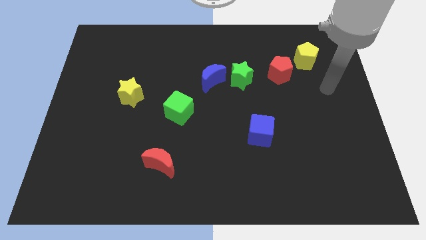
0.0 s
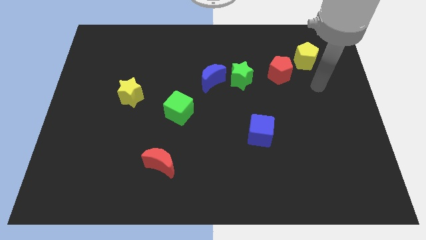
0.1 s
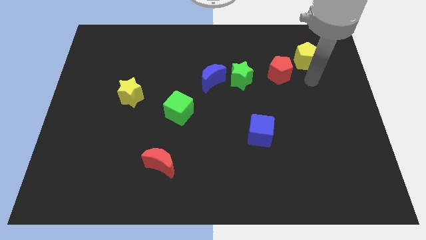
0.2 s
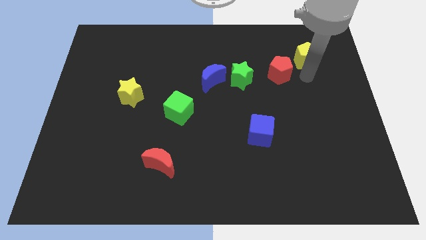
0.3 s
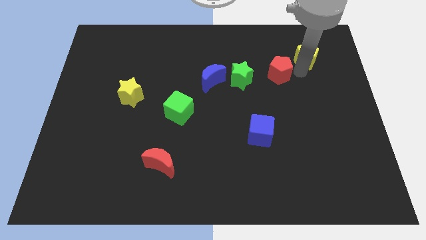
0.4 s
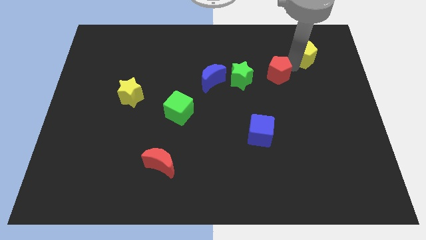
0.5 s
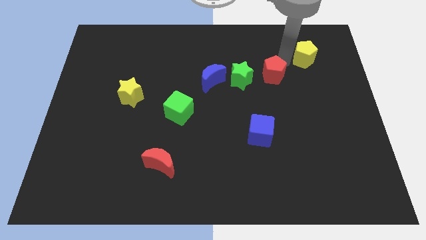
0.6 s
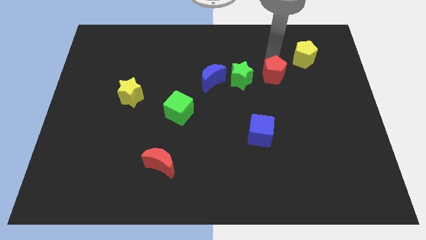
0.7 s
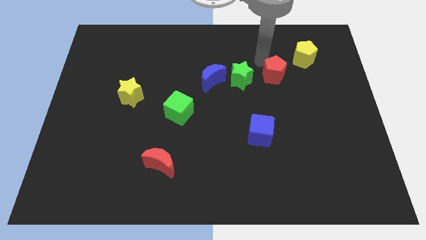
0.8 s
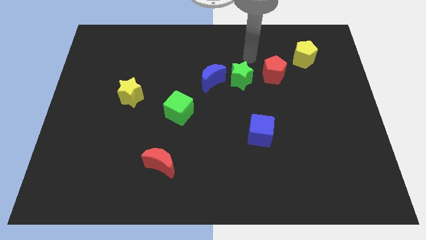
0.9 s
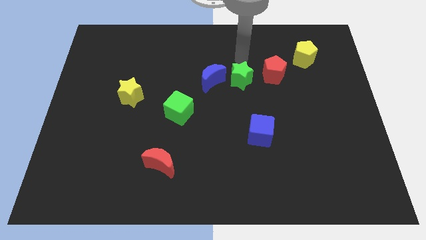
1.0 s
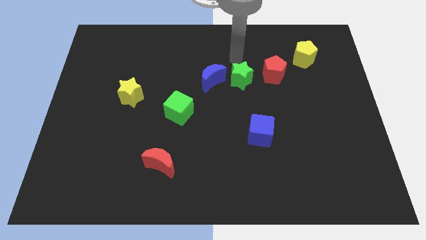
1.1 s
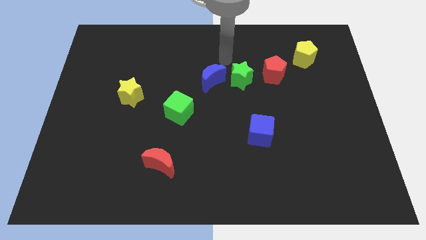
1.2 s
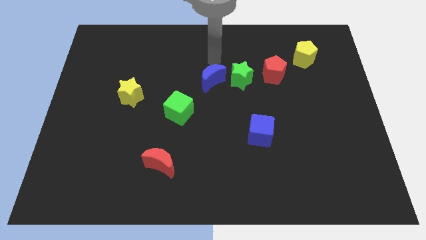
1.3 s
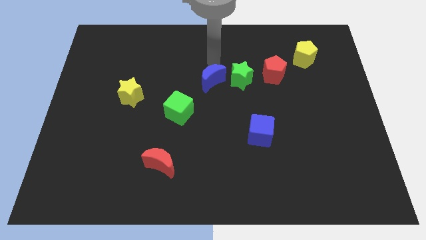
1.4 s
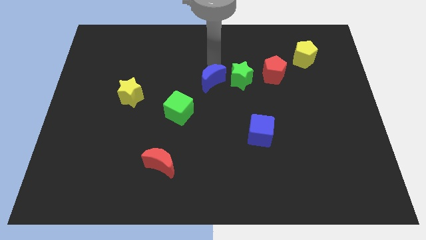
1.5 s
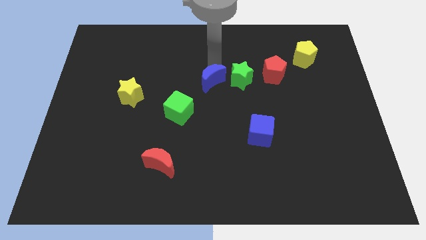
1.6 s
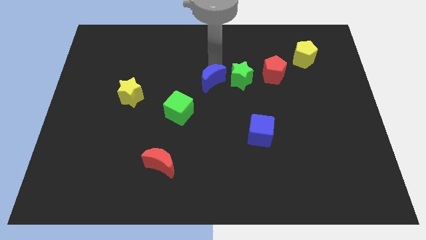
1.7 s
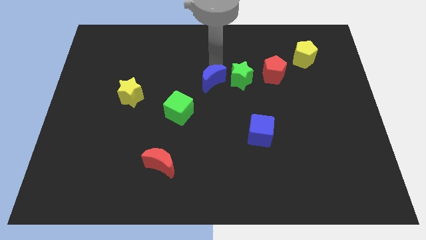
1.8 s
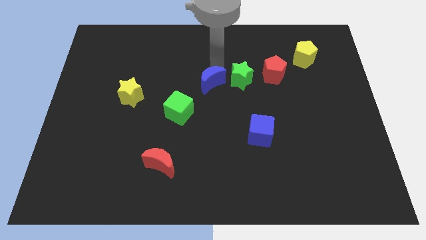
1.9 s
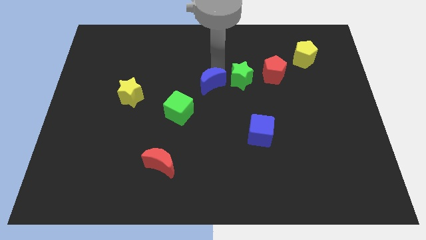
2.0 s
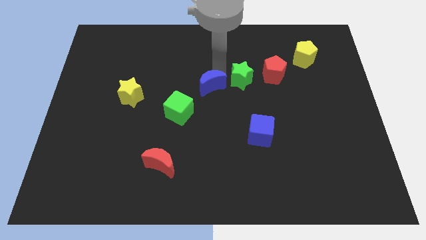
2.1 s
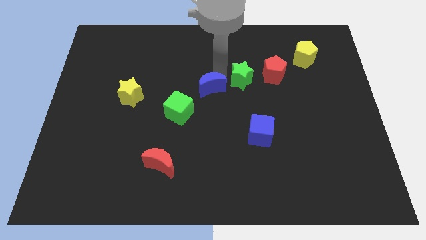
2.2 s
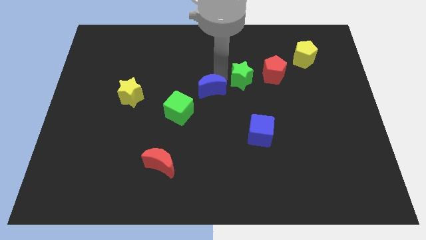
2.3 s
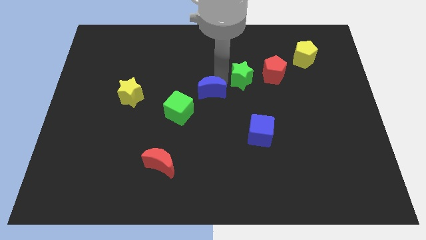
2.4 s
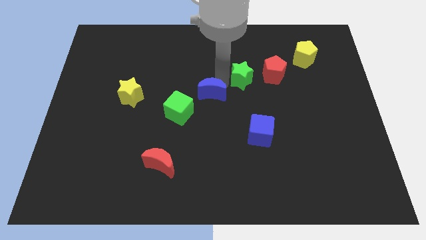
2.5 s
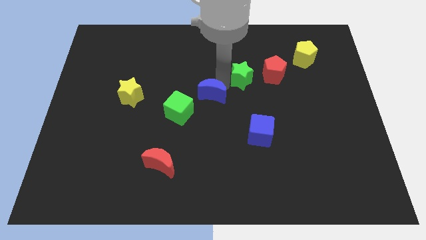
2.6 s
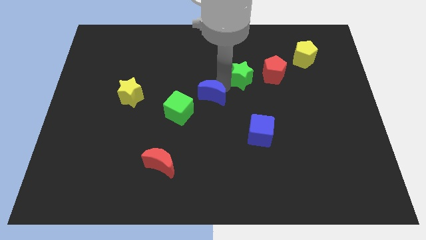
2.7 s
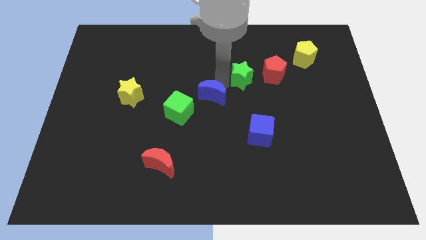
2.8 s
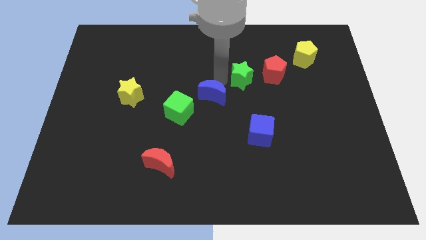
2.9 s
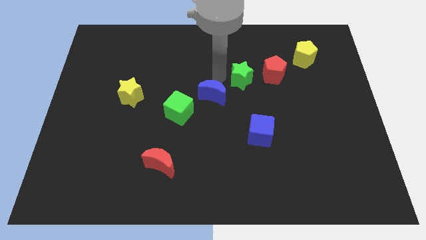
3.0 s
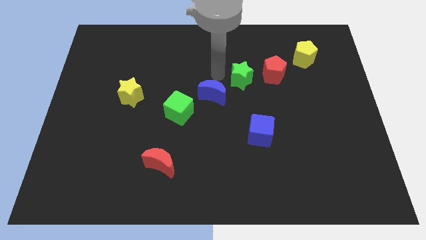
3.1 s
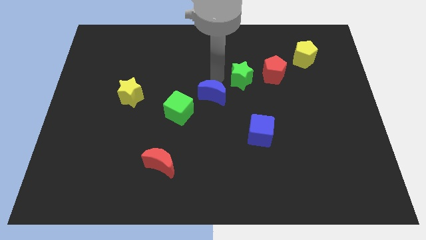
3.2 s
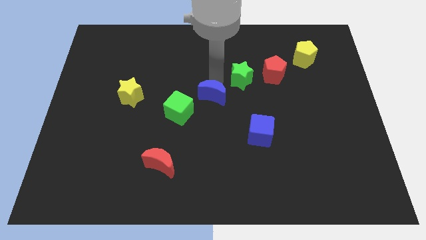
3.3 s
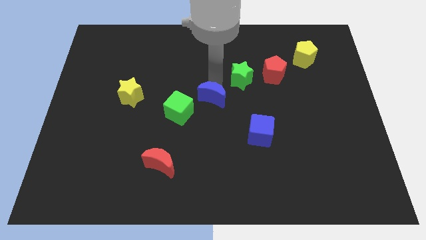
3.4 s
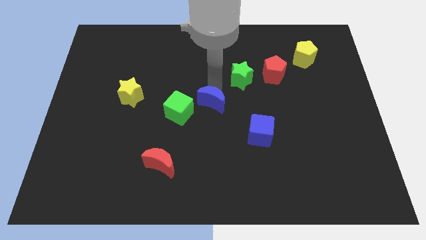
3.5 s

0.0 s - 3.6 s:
push the blue moon slightly downwards

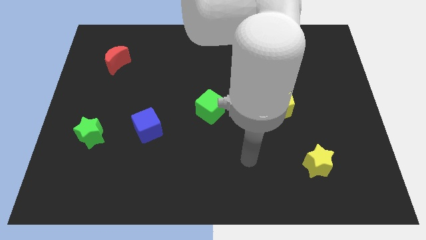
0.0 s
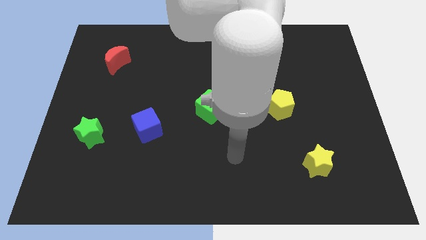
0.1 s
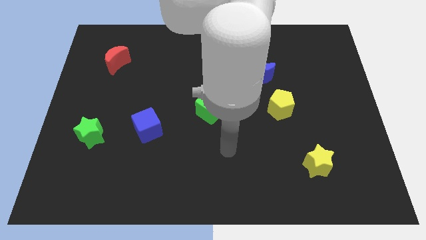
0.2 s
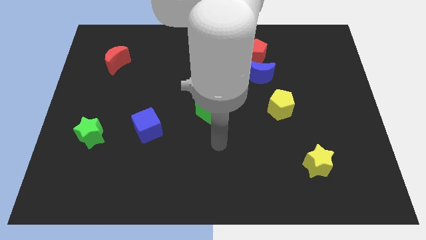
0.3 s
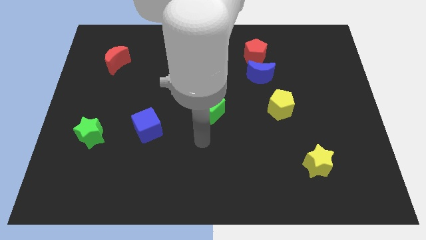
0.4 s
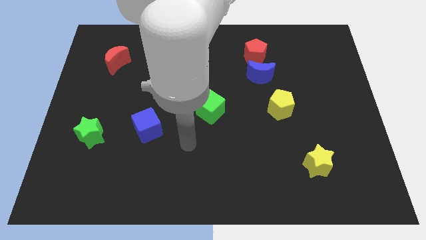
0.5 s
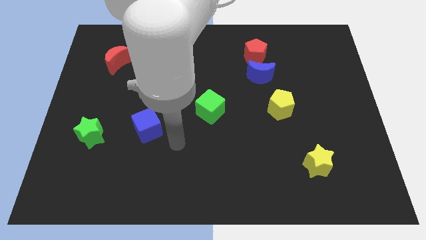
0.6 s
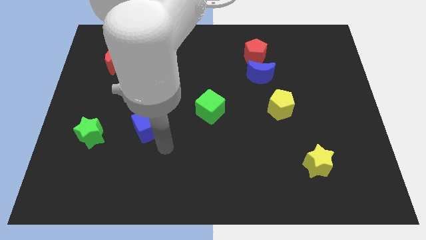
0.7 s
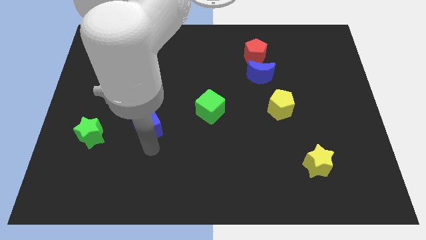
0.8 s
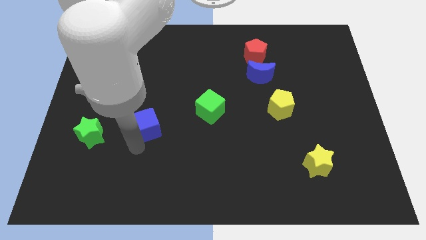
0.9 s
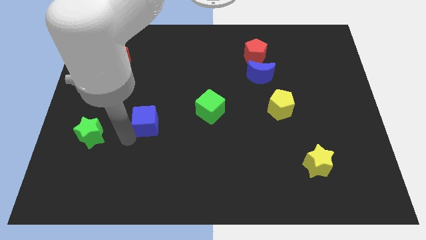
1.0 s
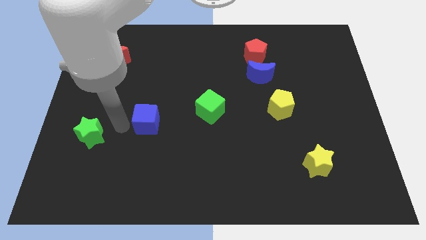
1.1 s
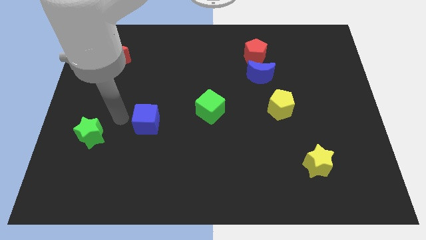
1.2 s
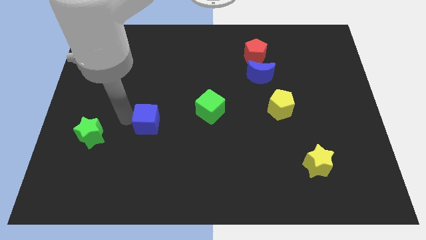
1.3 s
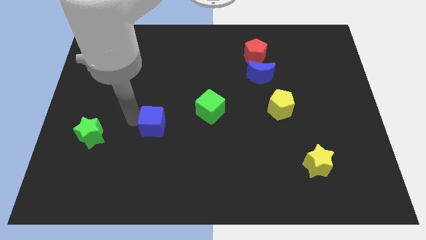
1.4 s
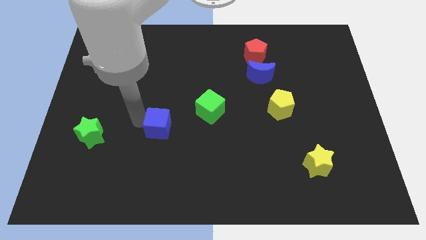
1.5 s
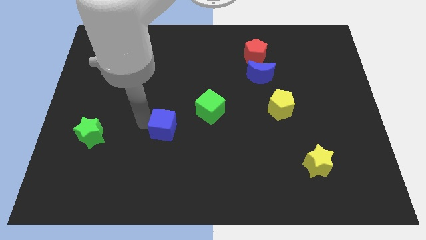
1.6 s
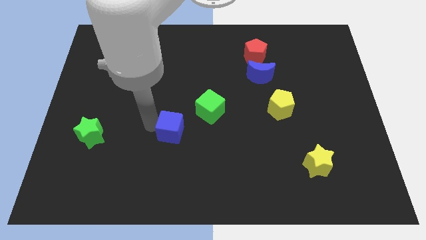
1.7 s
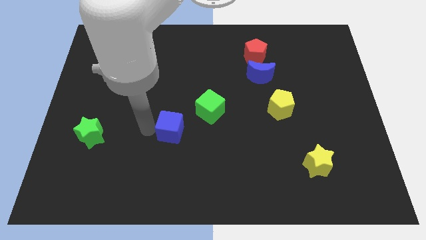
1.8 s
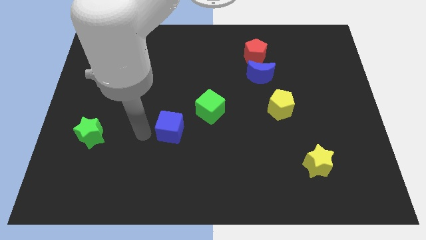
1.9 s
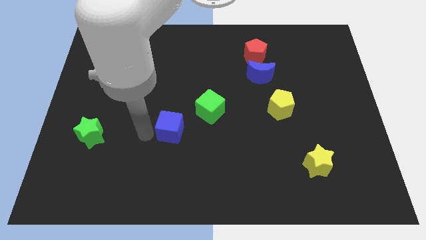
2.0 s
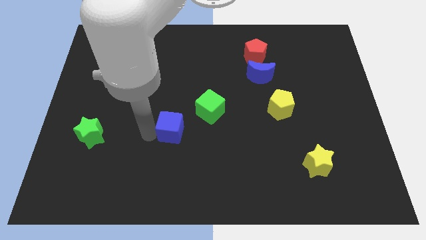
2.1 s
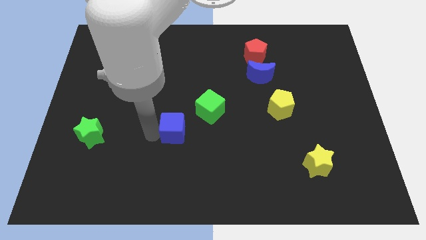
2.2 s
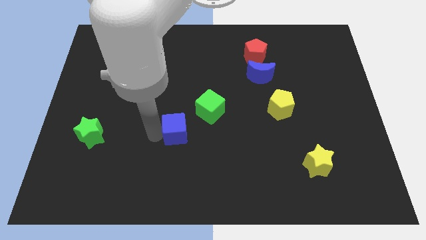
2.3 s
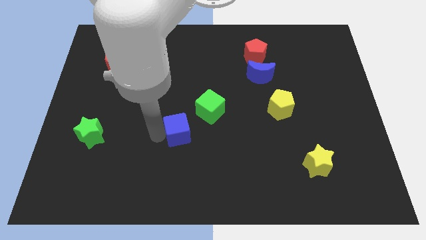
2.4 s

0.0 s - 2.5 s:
slightly move the blue cube to the right

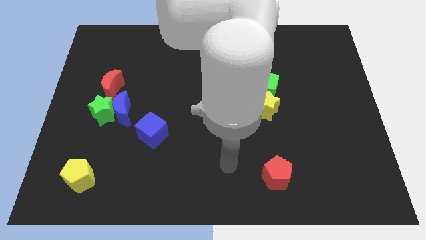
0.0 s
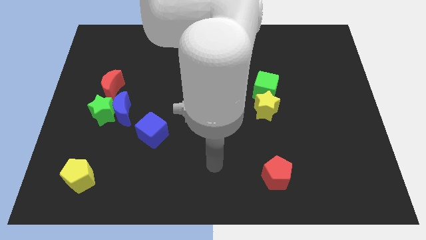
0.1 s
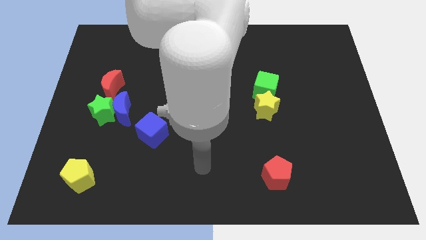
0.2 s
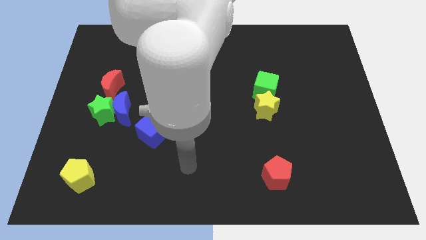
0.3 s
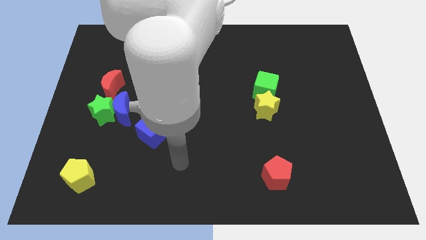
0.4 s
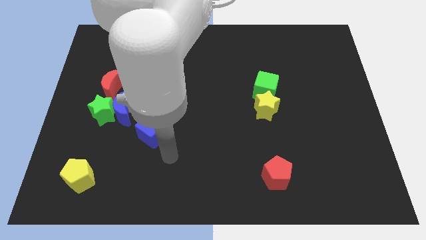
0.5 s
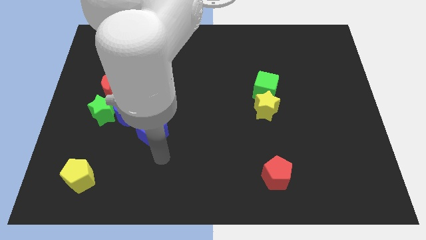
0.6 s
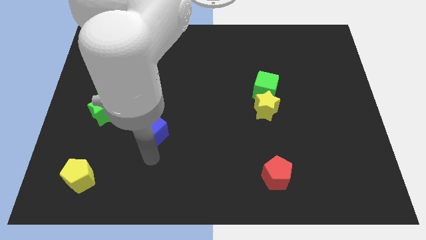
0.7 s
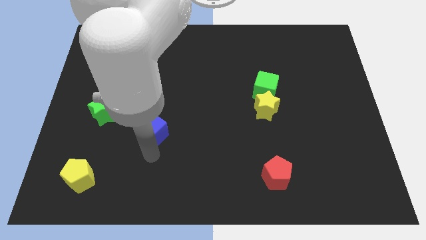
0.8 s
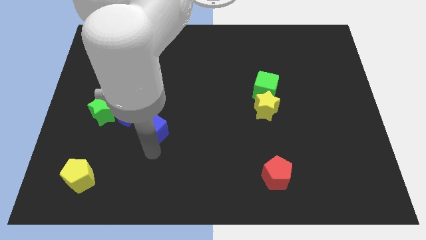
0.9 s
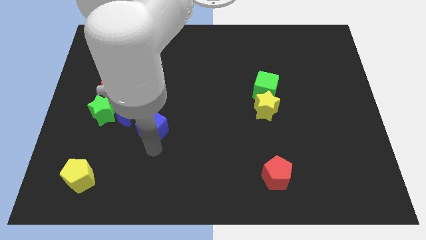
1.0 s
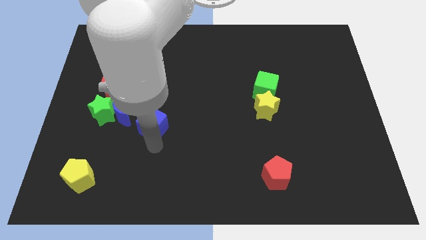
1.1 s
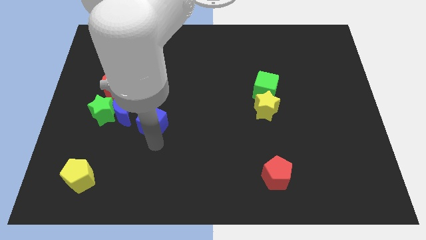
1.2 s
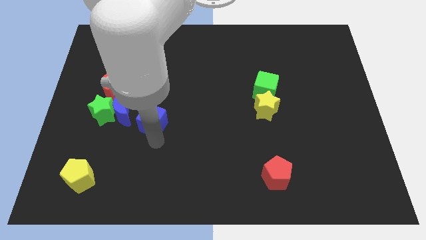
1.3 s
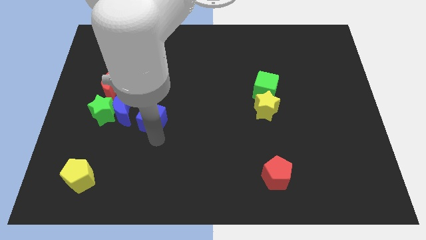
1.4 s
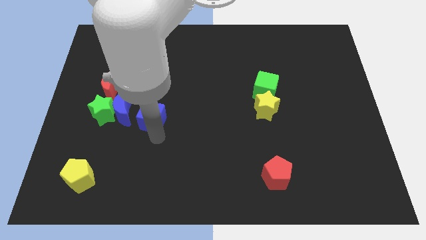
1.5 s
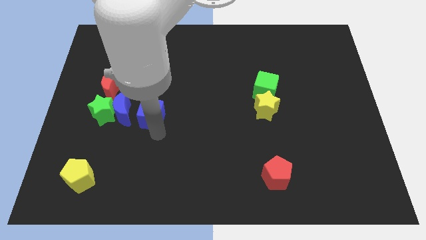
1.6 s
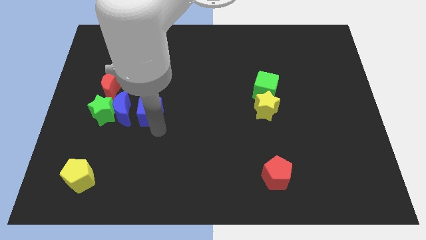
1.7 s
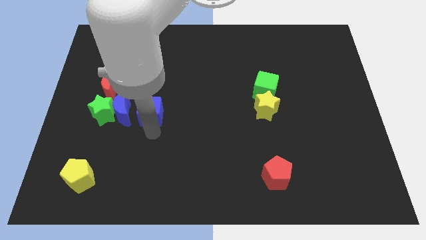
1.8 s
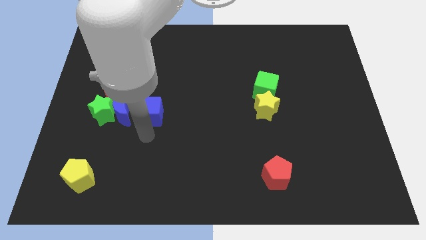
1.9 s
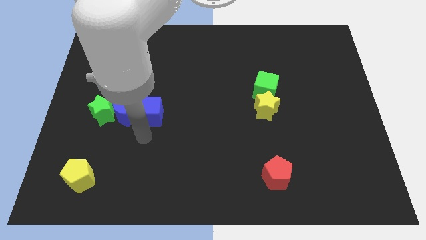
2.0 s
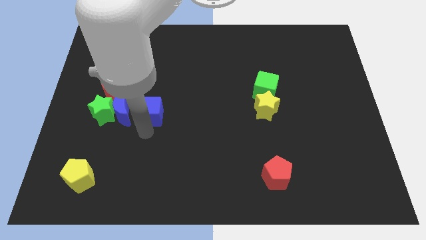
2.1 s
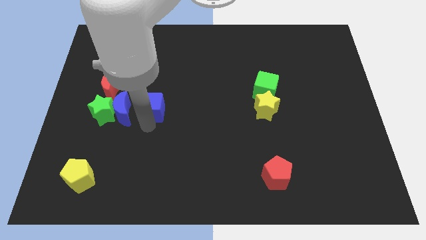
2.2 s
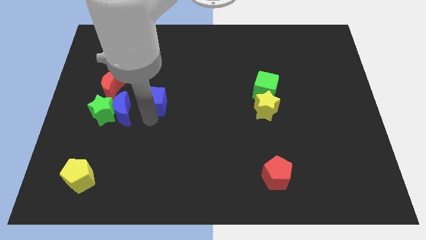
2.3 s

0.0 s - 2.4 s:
slightly push the blue cube up
